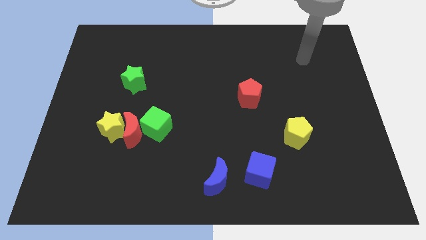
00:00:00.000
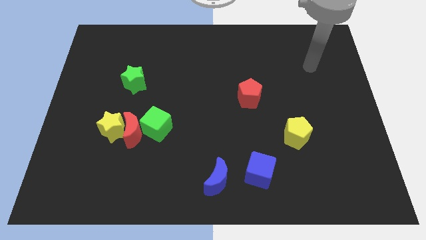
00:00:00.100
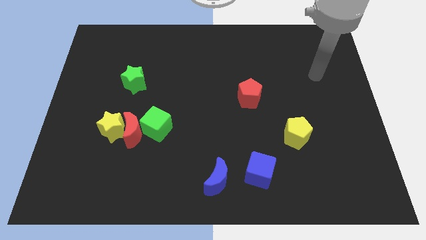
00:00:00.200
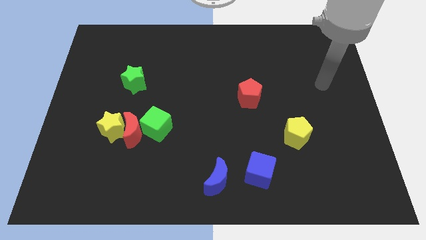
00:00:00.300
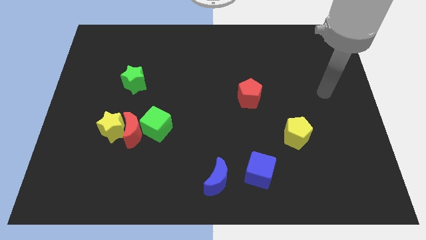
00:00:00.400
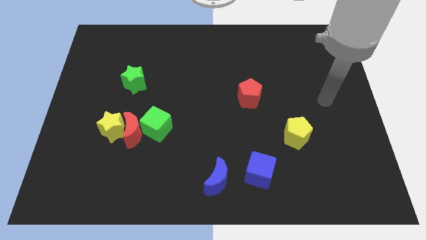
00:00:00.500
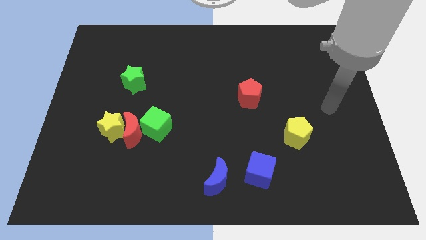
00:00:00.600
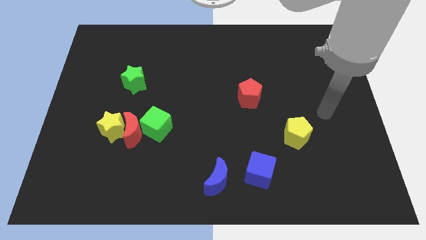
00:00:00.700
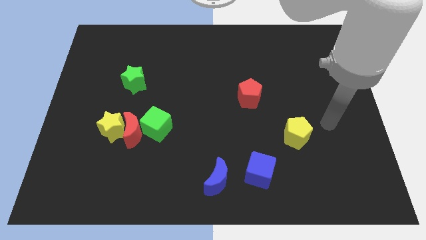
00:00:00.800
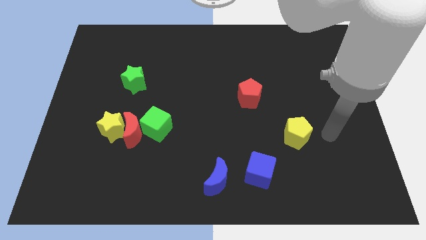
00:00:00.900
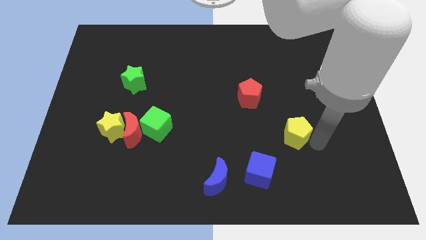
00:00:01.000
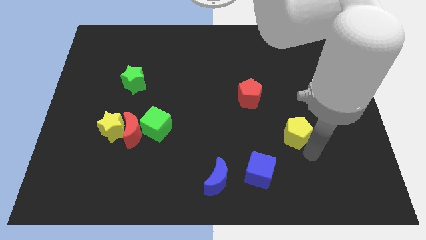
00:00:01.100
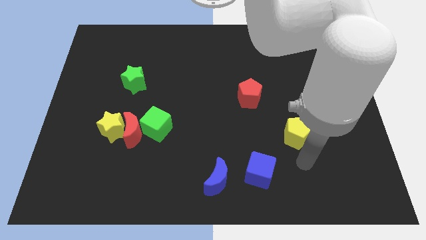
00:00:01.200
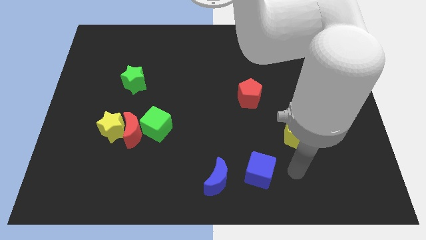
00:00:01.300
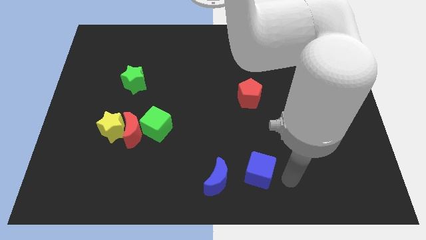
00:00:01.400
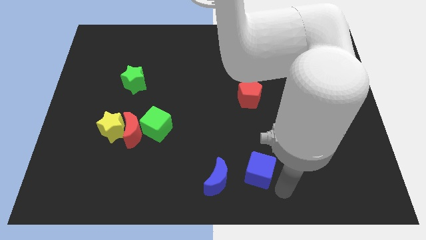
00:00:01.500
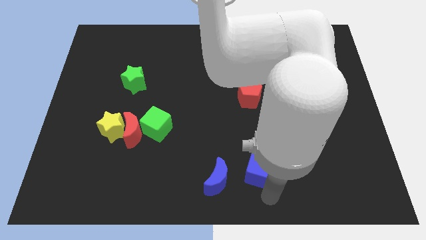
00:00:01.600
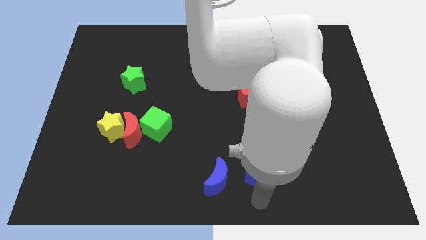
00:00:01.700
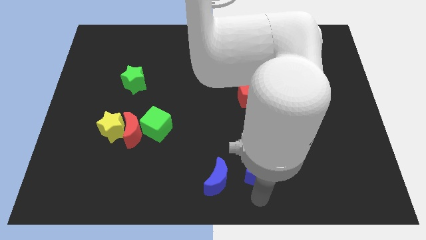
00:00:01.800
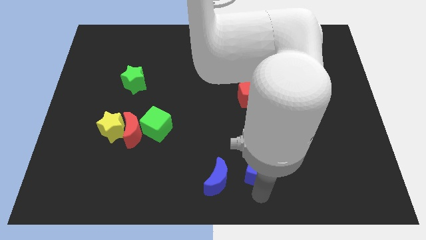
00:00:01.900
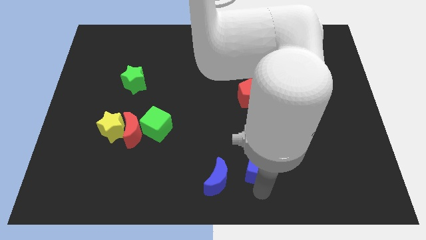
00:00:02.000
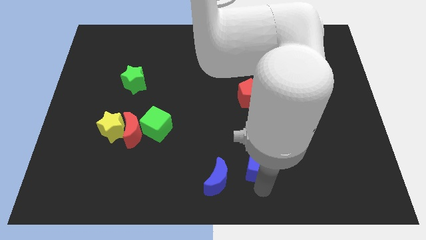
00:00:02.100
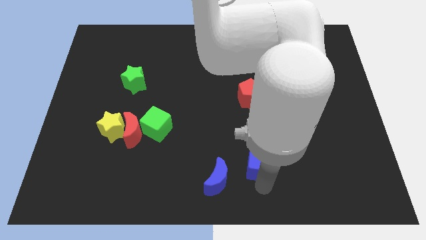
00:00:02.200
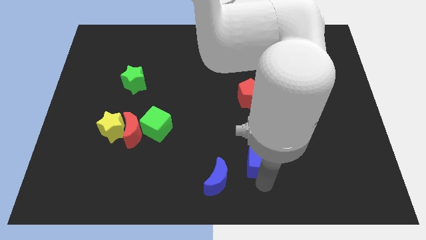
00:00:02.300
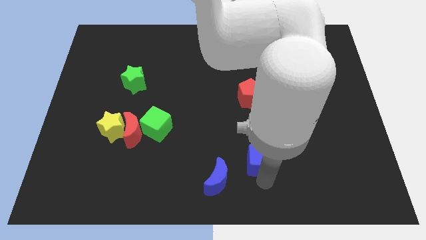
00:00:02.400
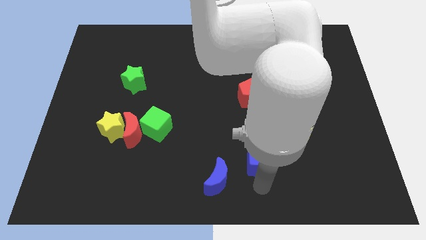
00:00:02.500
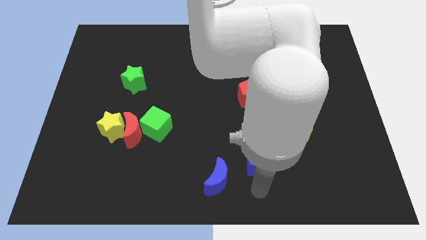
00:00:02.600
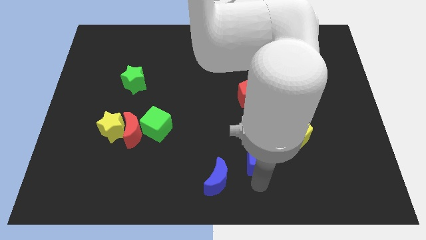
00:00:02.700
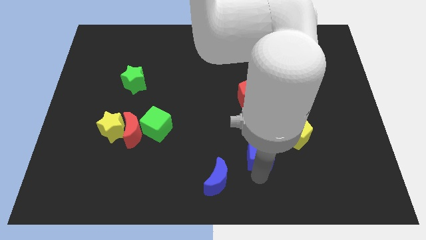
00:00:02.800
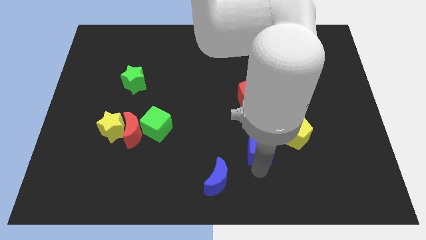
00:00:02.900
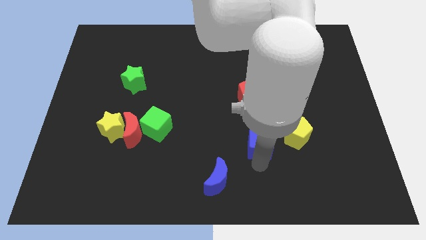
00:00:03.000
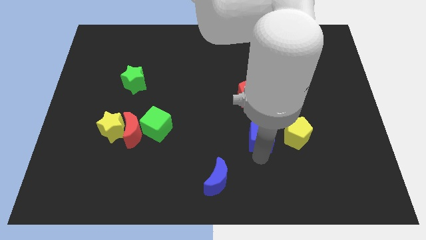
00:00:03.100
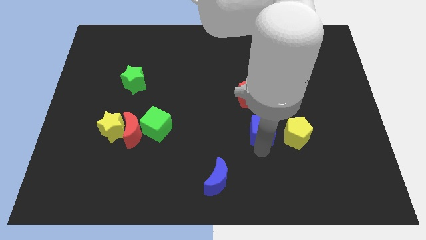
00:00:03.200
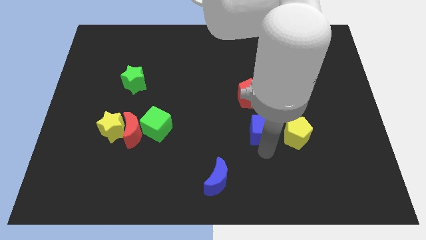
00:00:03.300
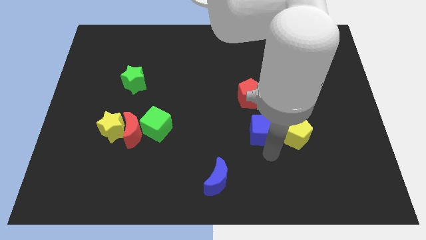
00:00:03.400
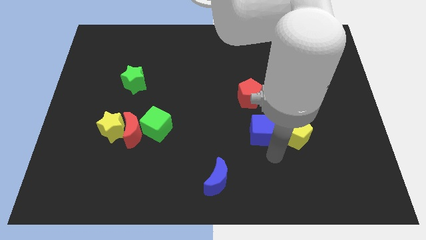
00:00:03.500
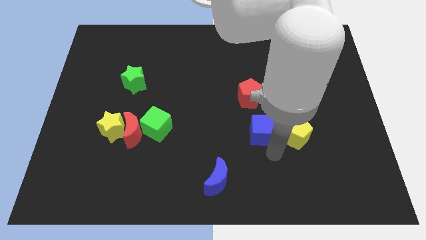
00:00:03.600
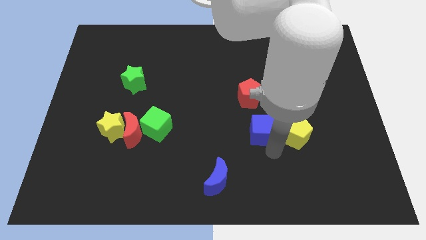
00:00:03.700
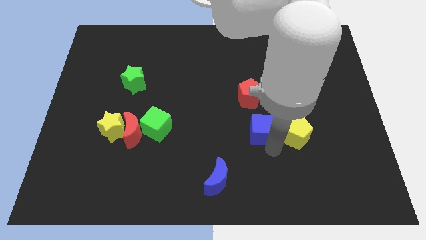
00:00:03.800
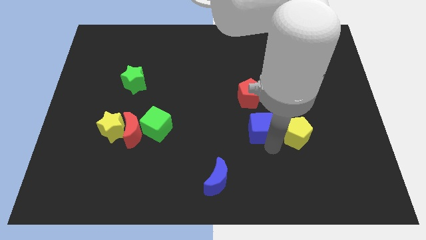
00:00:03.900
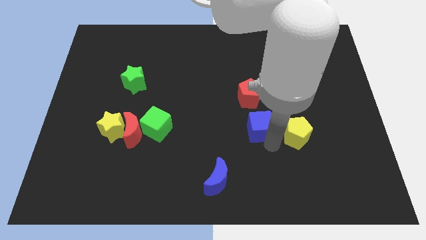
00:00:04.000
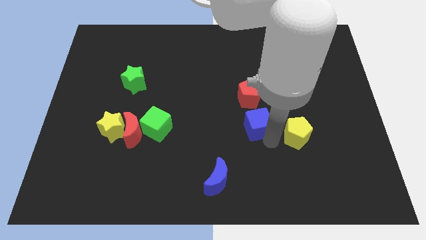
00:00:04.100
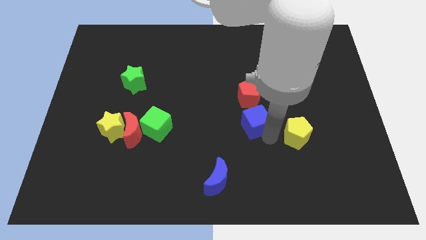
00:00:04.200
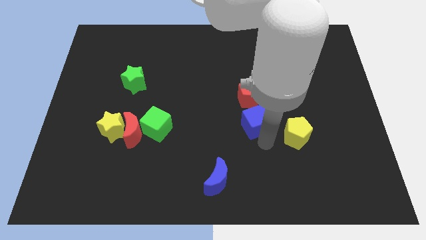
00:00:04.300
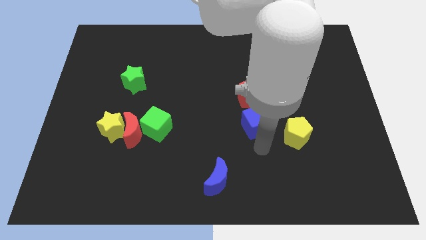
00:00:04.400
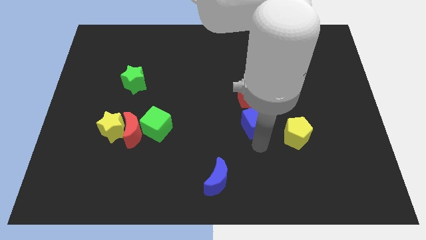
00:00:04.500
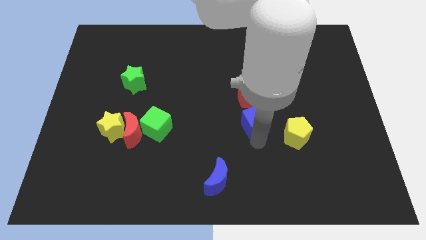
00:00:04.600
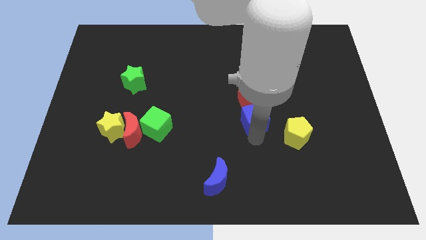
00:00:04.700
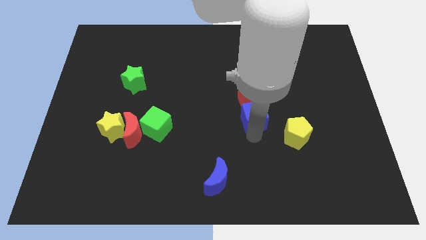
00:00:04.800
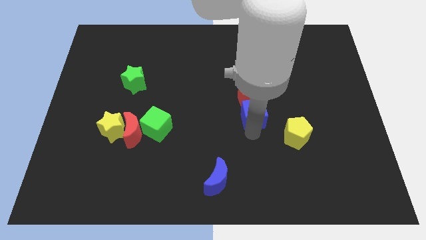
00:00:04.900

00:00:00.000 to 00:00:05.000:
slide the blue cube to the red pentagon

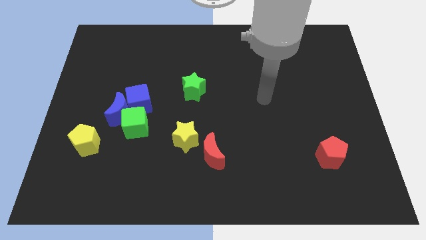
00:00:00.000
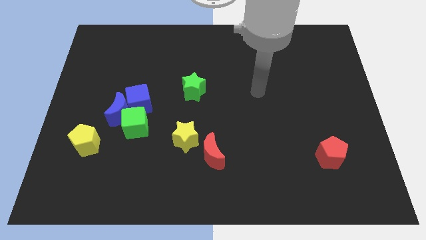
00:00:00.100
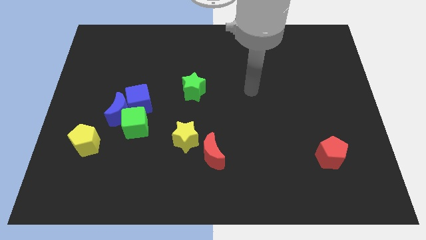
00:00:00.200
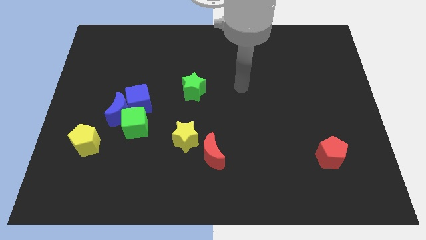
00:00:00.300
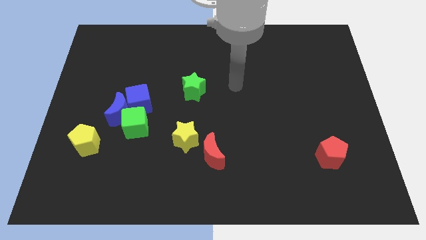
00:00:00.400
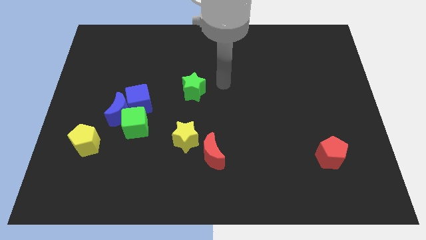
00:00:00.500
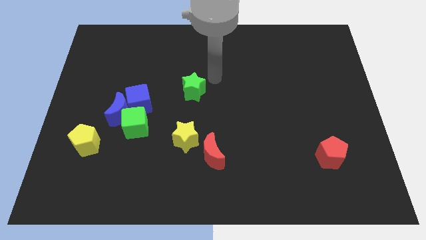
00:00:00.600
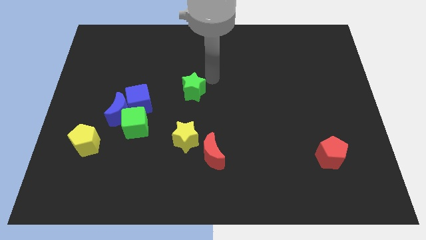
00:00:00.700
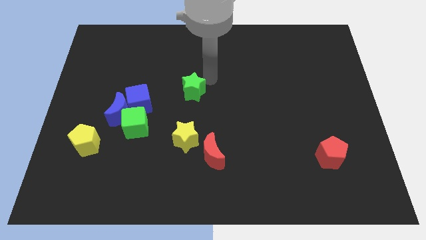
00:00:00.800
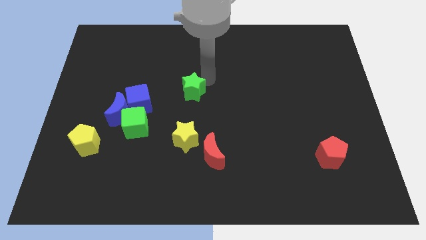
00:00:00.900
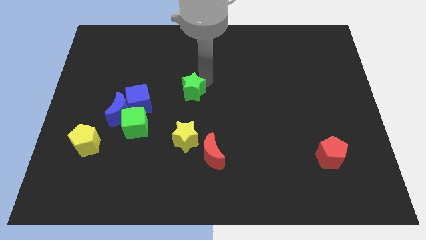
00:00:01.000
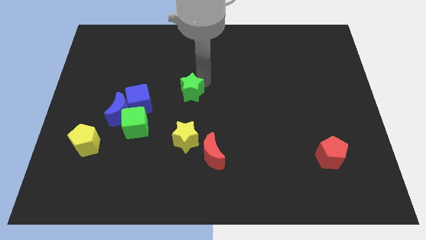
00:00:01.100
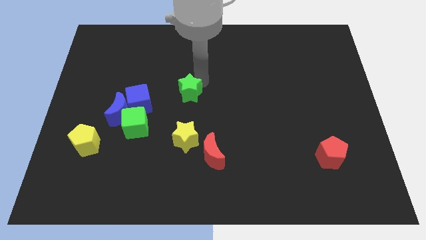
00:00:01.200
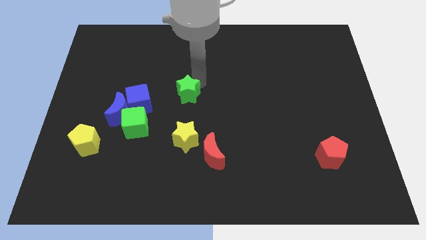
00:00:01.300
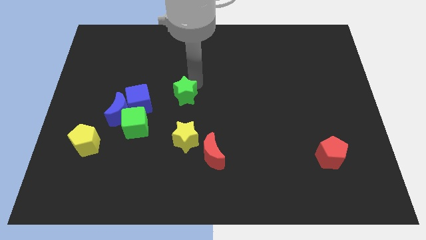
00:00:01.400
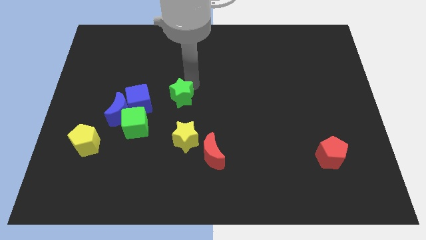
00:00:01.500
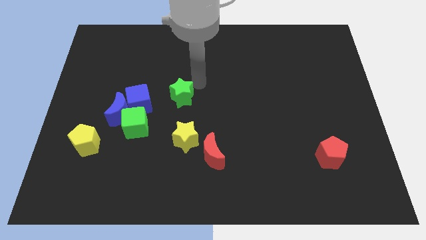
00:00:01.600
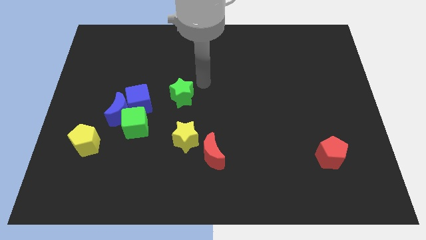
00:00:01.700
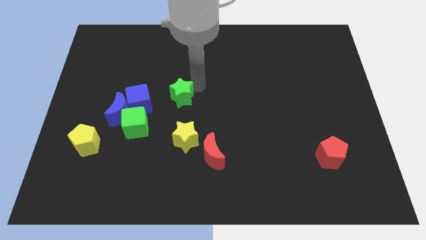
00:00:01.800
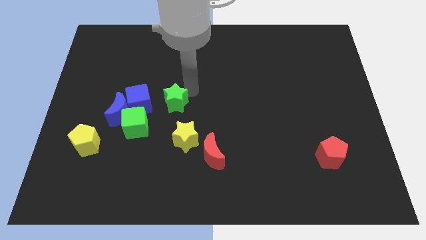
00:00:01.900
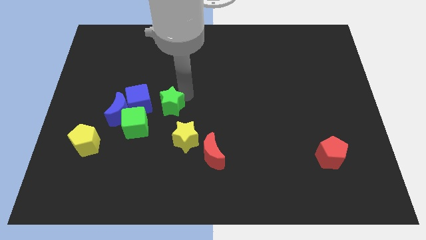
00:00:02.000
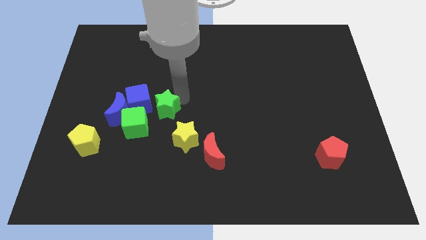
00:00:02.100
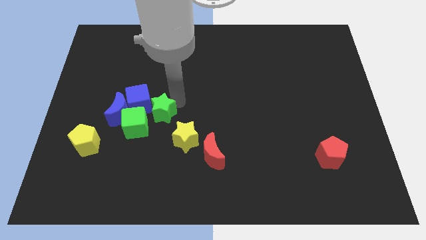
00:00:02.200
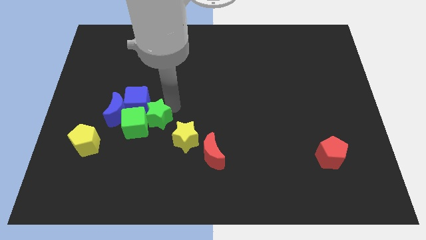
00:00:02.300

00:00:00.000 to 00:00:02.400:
put the green star close to the green cube

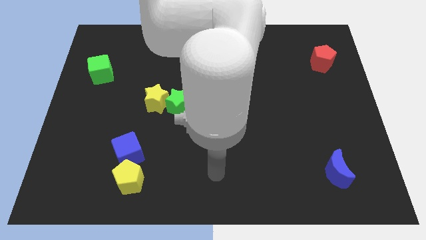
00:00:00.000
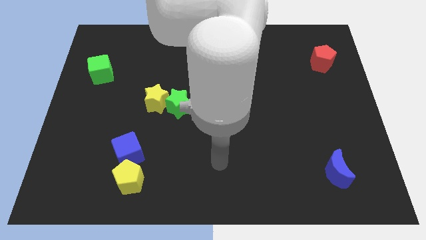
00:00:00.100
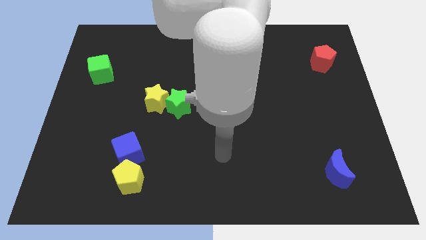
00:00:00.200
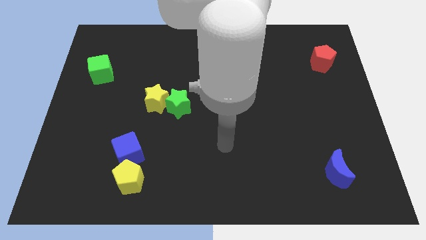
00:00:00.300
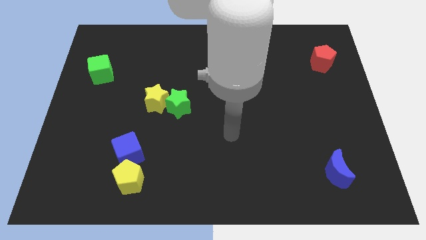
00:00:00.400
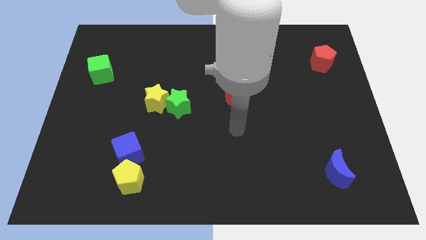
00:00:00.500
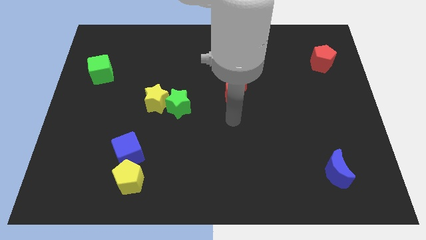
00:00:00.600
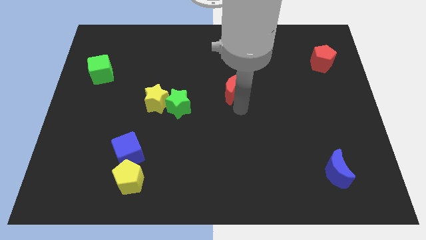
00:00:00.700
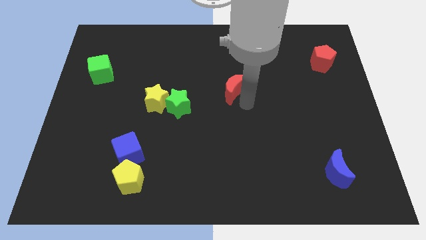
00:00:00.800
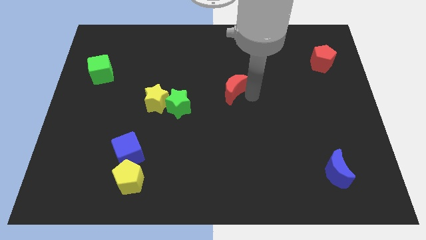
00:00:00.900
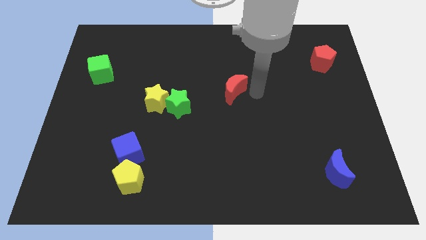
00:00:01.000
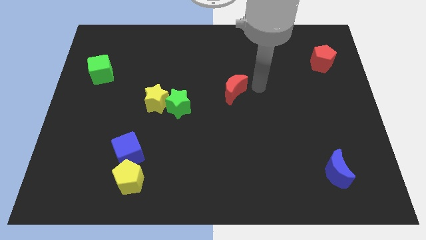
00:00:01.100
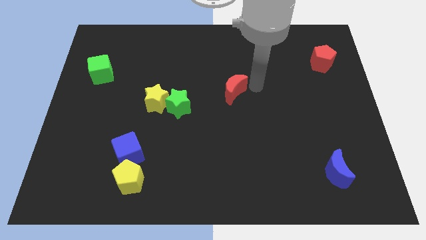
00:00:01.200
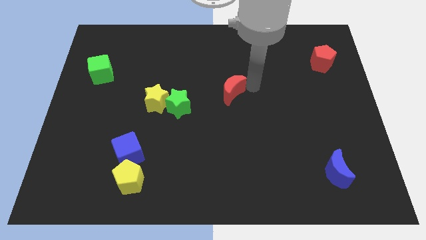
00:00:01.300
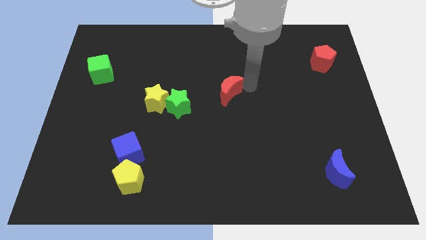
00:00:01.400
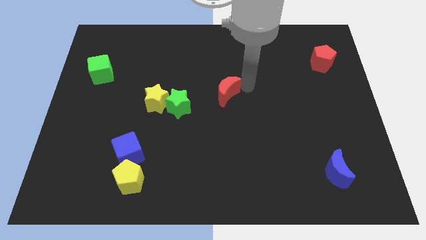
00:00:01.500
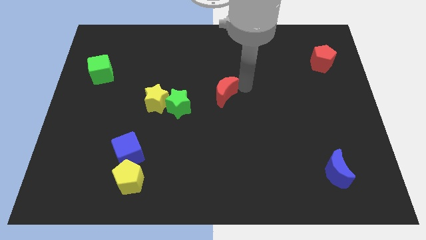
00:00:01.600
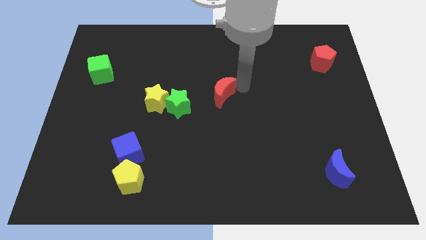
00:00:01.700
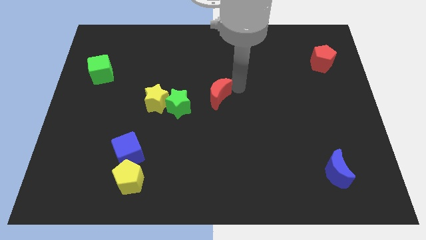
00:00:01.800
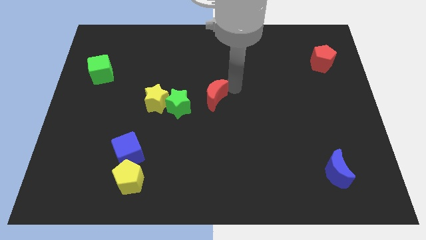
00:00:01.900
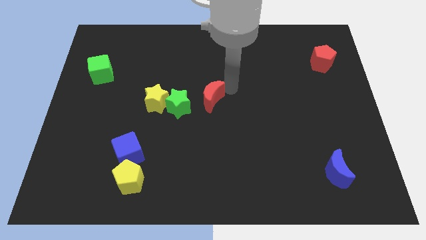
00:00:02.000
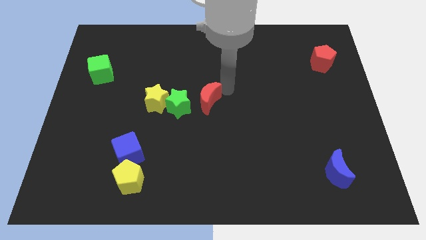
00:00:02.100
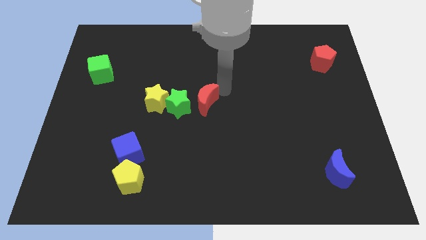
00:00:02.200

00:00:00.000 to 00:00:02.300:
slide the red moon close to the green star
